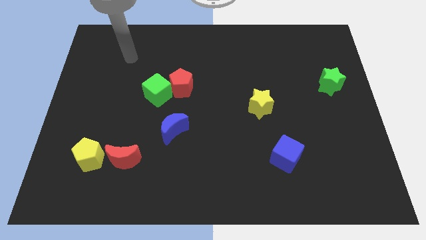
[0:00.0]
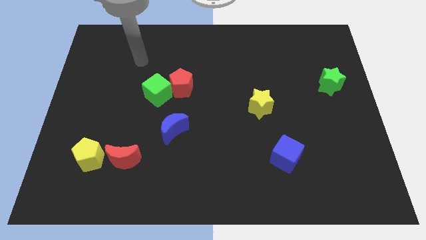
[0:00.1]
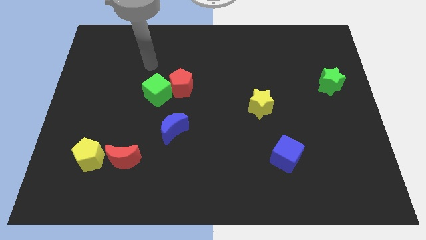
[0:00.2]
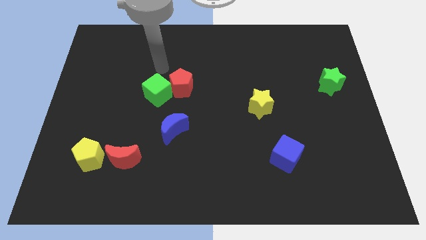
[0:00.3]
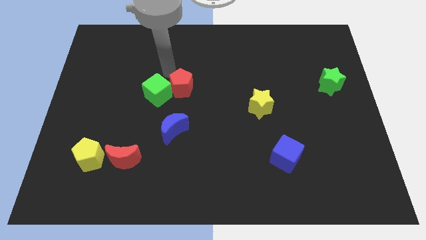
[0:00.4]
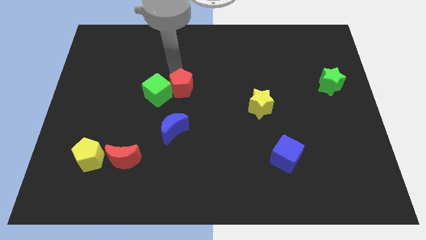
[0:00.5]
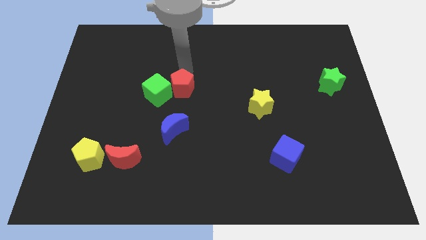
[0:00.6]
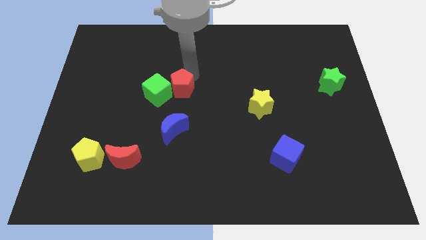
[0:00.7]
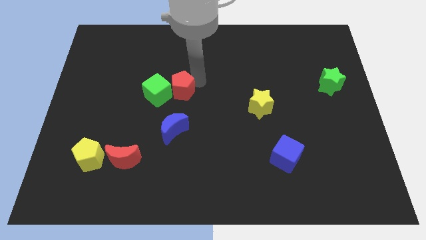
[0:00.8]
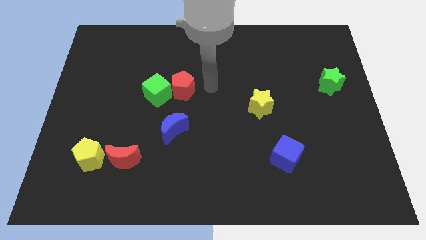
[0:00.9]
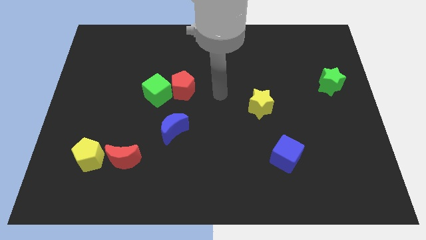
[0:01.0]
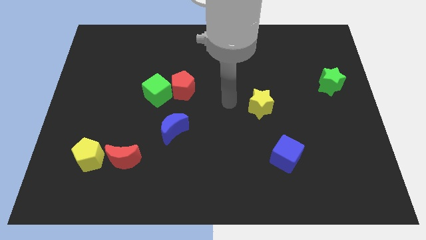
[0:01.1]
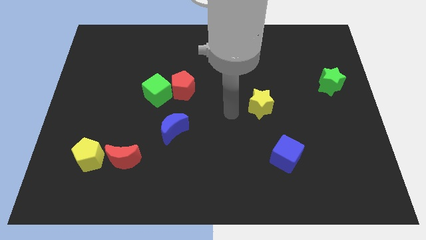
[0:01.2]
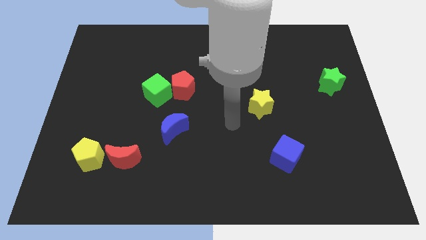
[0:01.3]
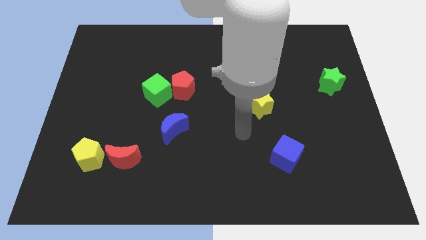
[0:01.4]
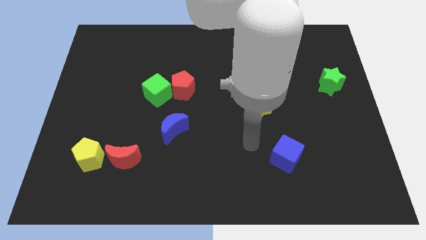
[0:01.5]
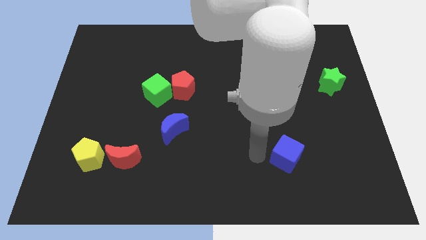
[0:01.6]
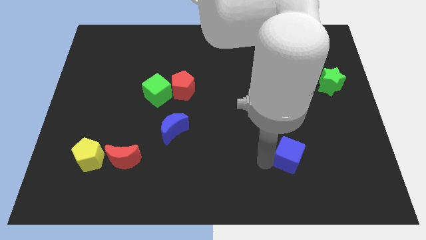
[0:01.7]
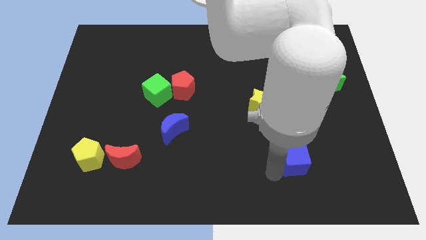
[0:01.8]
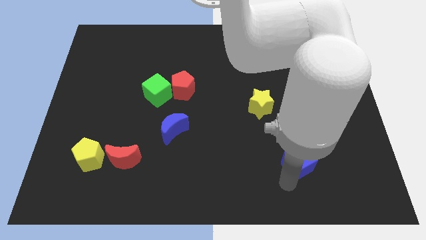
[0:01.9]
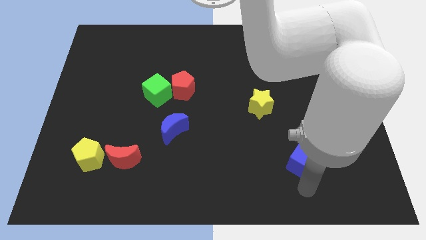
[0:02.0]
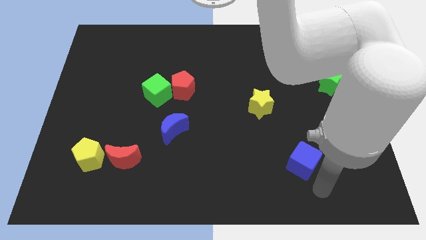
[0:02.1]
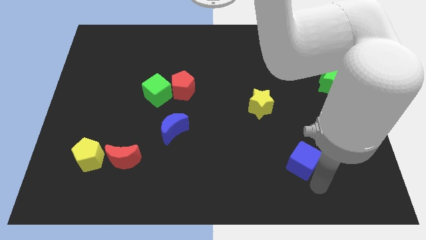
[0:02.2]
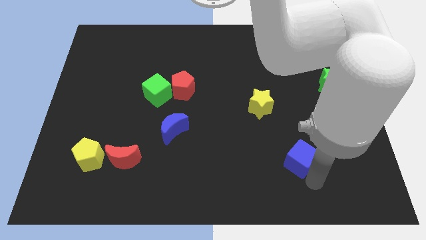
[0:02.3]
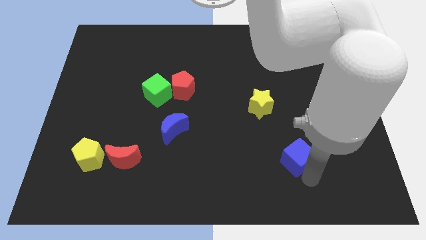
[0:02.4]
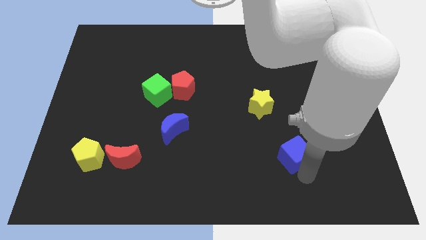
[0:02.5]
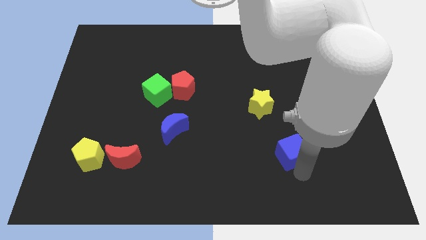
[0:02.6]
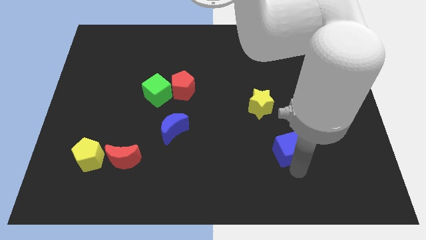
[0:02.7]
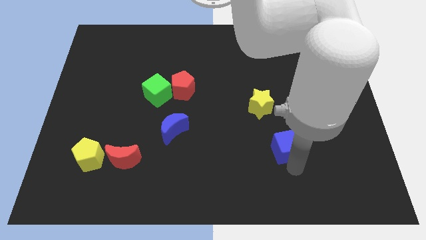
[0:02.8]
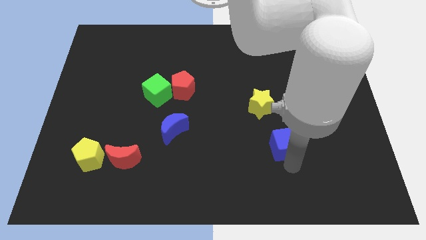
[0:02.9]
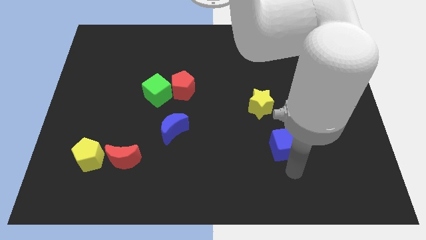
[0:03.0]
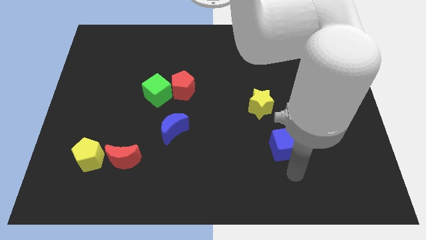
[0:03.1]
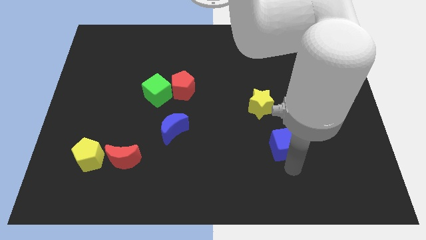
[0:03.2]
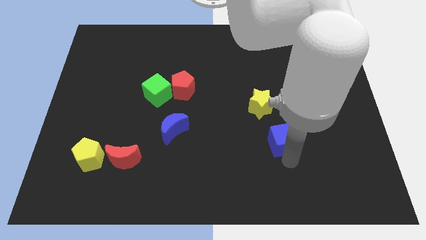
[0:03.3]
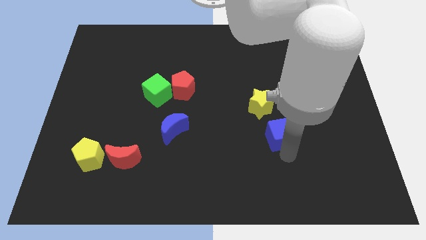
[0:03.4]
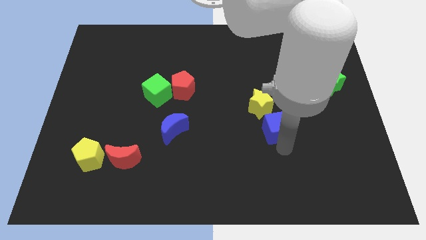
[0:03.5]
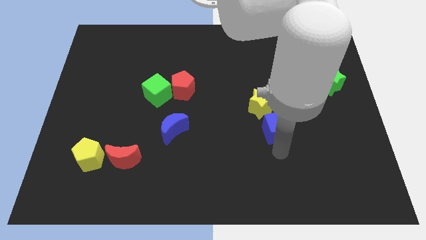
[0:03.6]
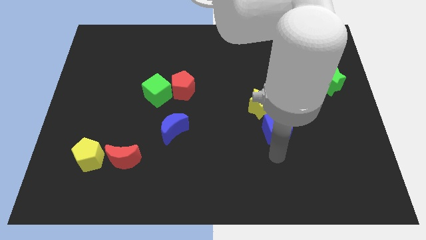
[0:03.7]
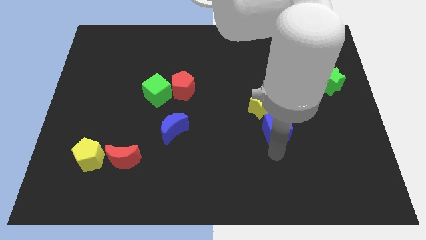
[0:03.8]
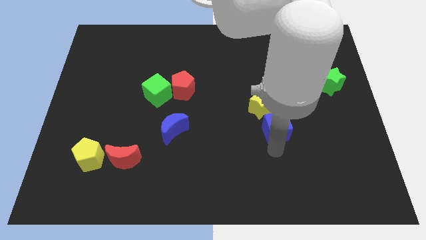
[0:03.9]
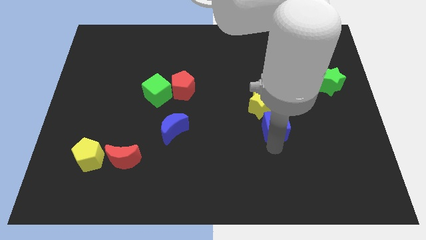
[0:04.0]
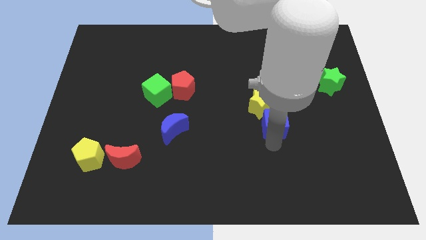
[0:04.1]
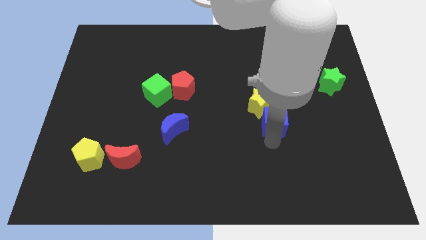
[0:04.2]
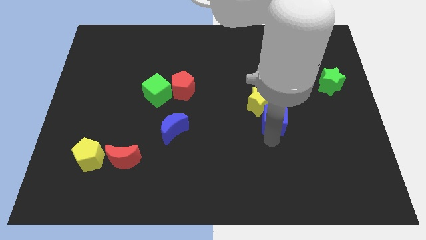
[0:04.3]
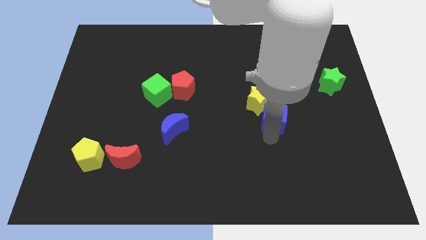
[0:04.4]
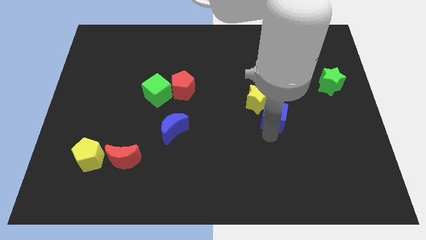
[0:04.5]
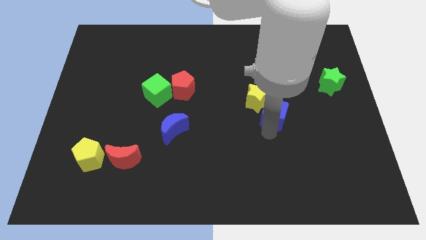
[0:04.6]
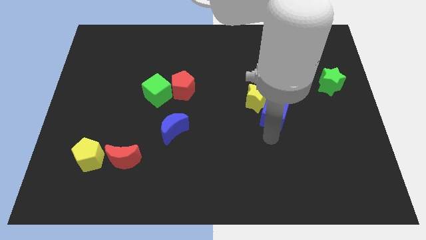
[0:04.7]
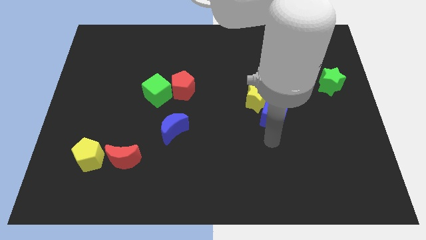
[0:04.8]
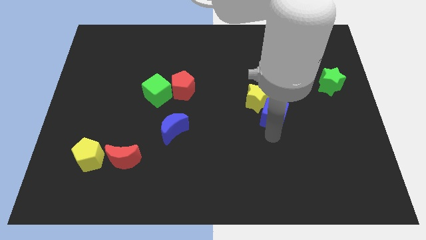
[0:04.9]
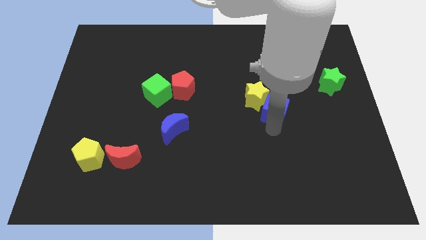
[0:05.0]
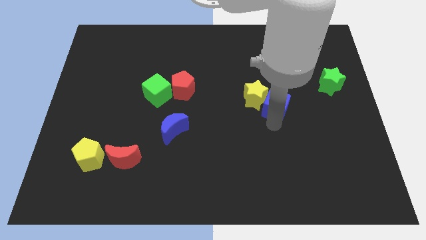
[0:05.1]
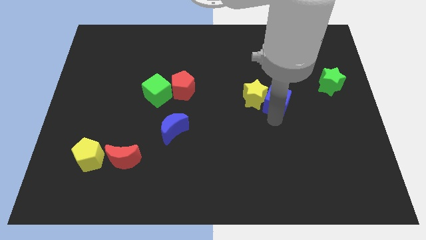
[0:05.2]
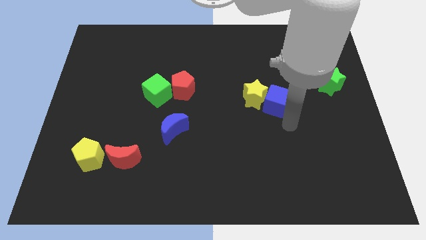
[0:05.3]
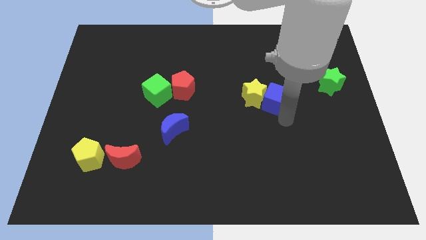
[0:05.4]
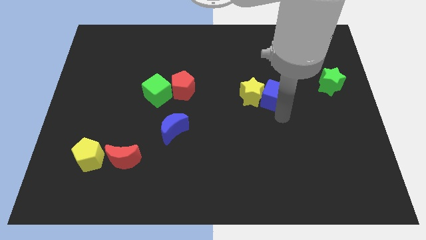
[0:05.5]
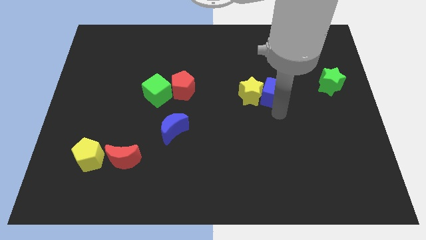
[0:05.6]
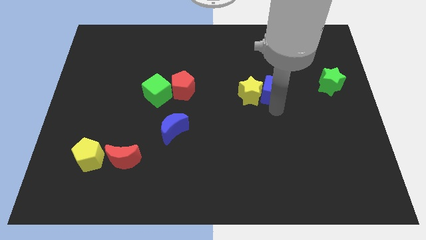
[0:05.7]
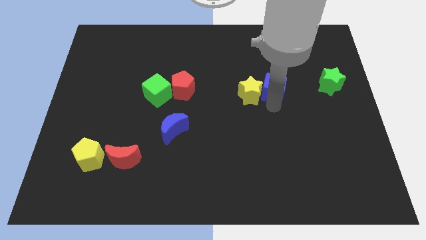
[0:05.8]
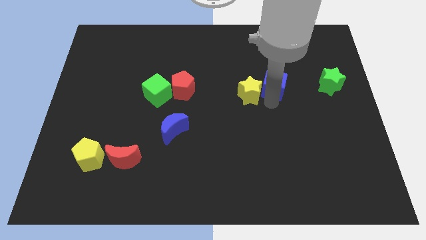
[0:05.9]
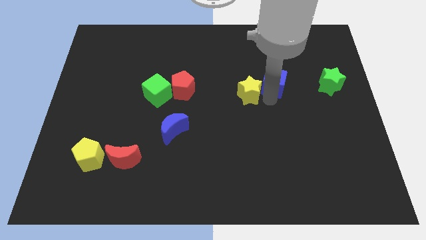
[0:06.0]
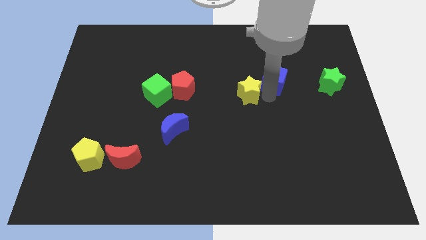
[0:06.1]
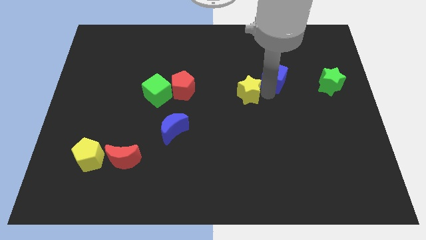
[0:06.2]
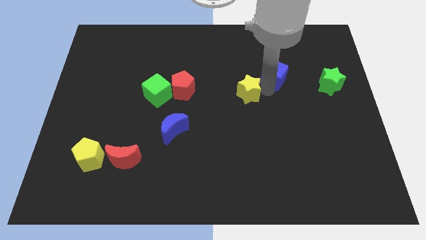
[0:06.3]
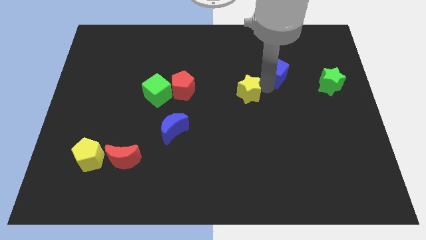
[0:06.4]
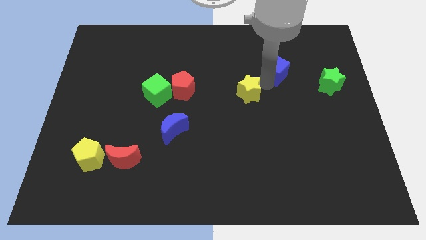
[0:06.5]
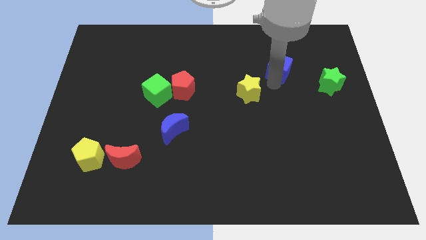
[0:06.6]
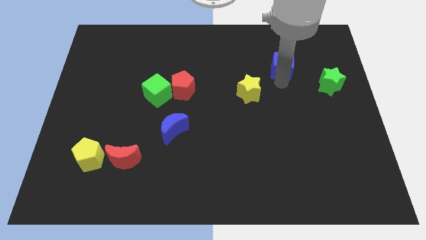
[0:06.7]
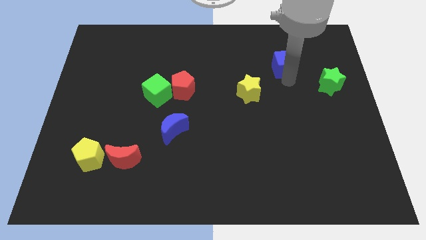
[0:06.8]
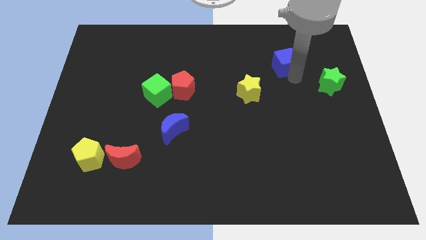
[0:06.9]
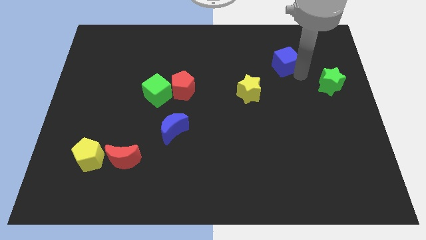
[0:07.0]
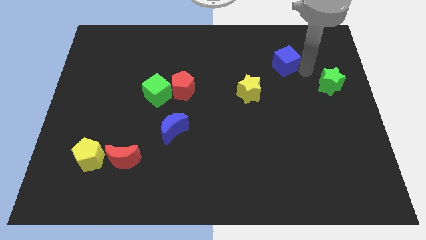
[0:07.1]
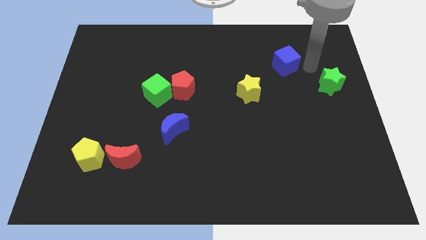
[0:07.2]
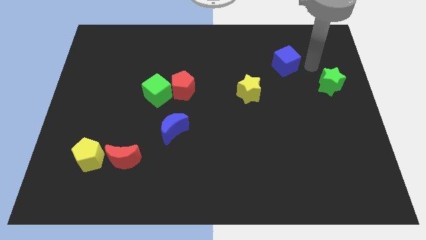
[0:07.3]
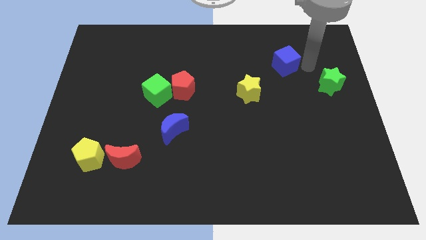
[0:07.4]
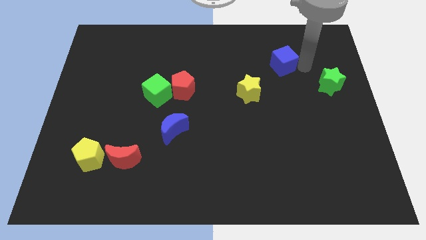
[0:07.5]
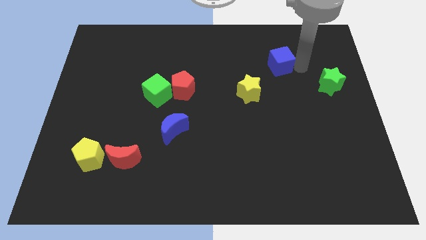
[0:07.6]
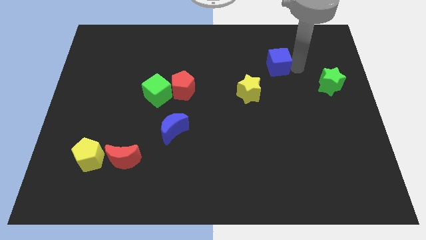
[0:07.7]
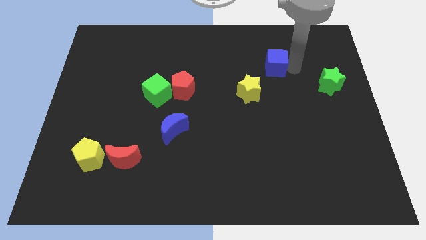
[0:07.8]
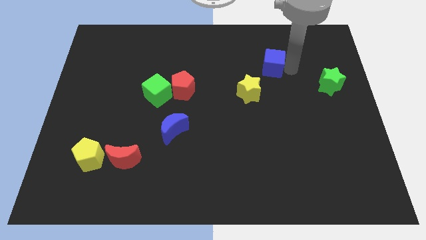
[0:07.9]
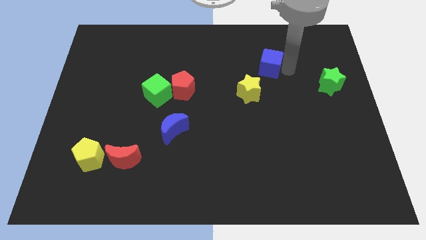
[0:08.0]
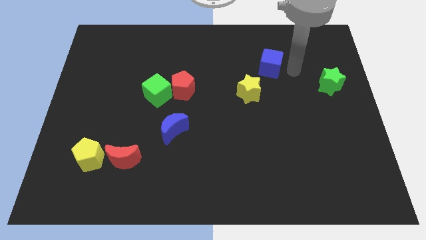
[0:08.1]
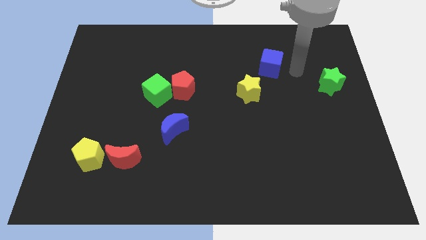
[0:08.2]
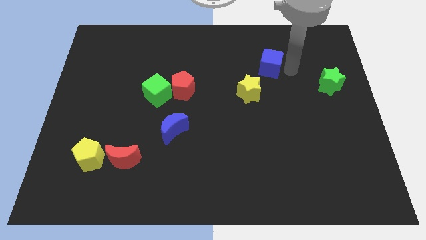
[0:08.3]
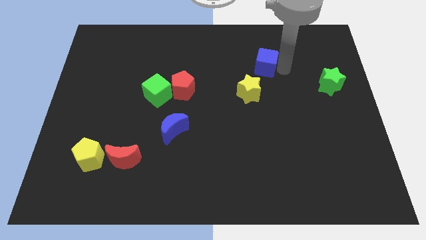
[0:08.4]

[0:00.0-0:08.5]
slide the blue cube to the top of the yellow star
